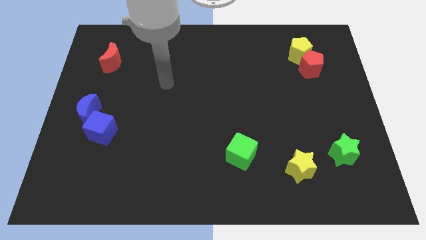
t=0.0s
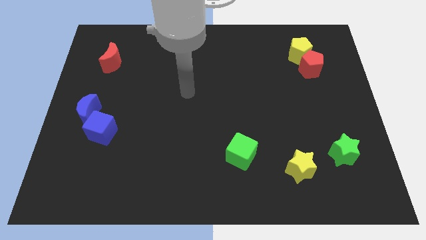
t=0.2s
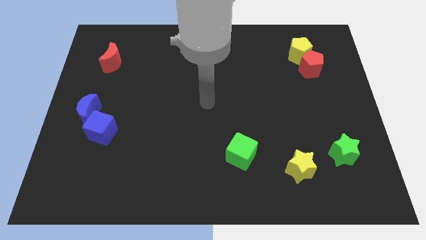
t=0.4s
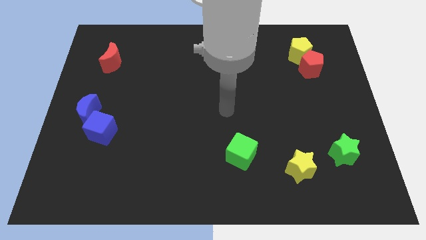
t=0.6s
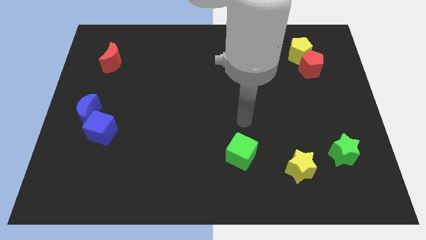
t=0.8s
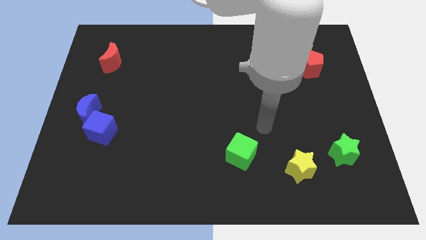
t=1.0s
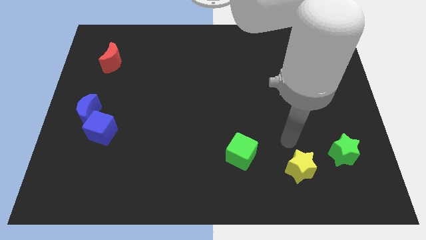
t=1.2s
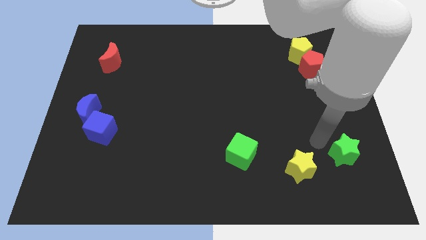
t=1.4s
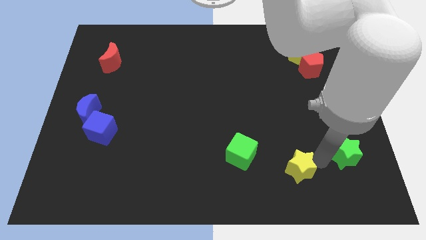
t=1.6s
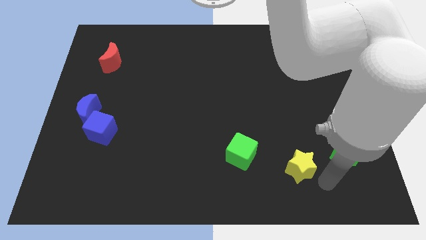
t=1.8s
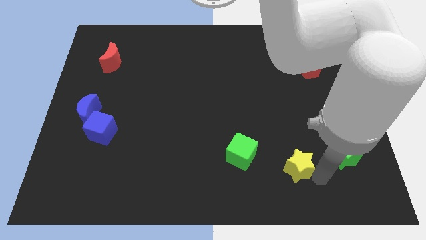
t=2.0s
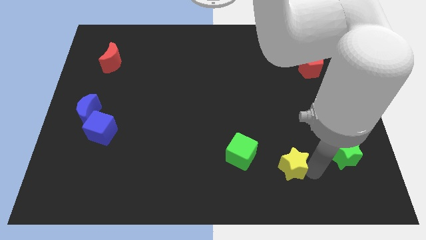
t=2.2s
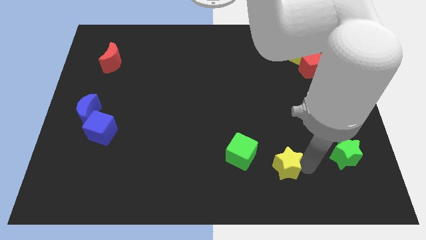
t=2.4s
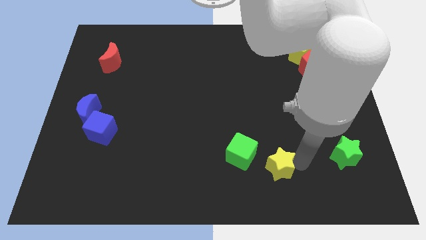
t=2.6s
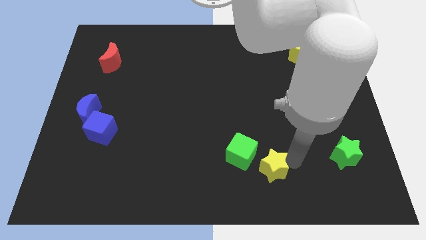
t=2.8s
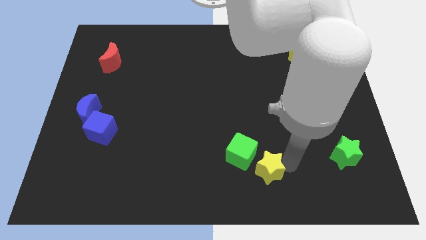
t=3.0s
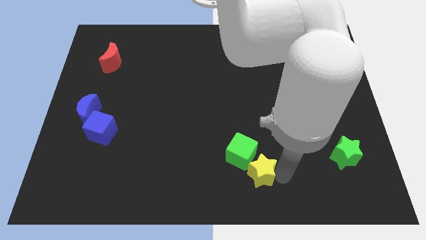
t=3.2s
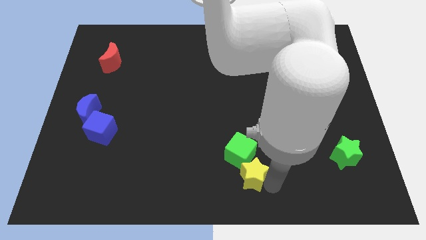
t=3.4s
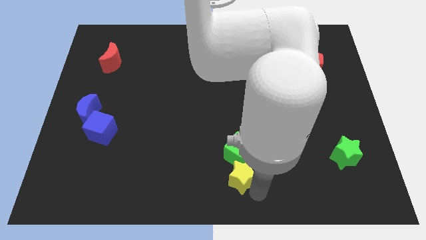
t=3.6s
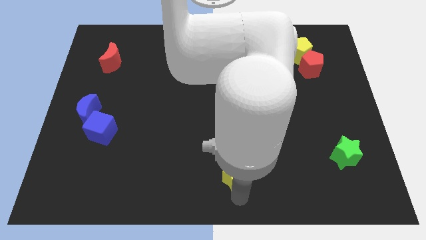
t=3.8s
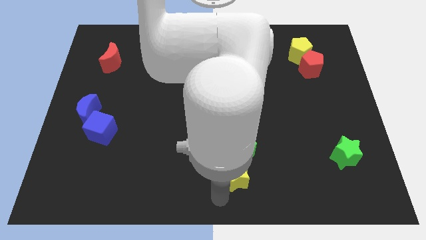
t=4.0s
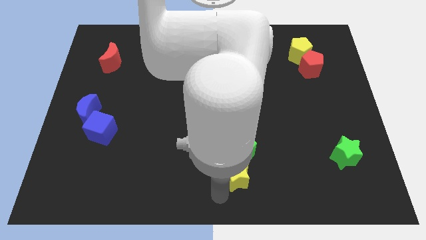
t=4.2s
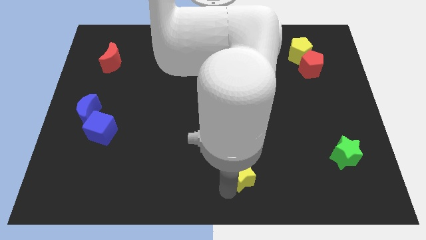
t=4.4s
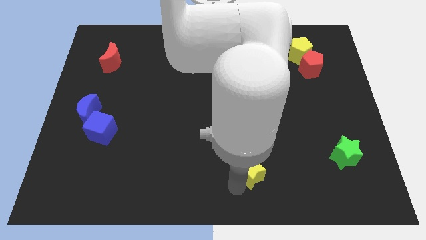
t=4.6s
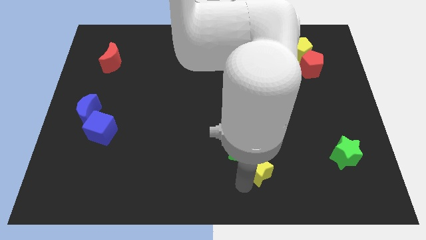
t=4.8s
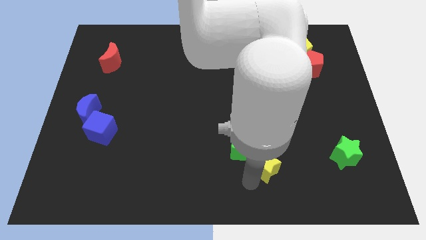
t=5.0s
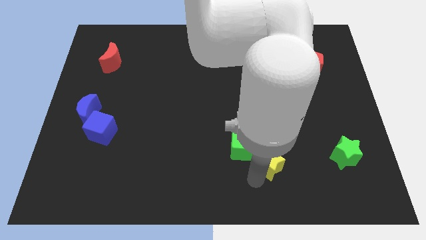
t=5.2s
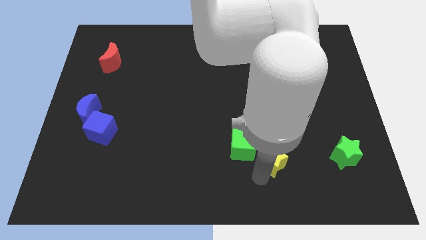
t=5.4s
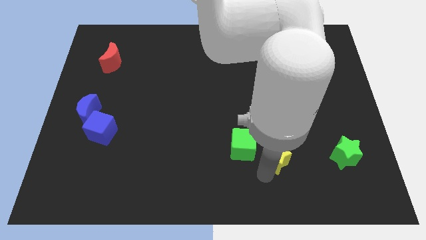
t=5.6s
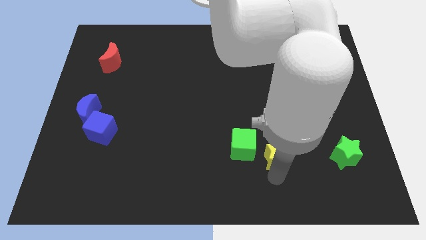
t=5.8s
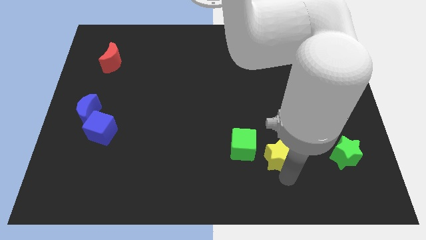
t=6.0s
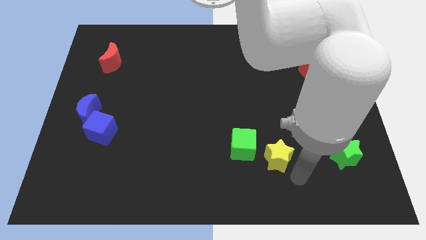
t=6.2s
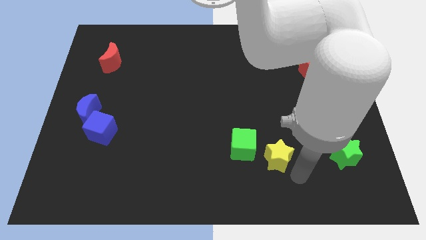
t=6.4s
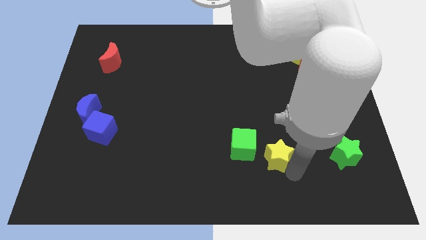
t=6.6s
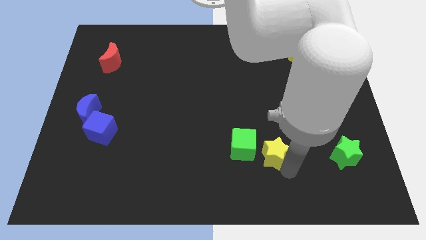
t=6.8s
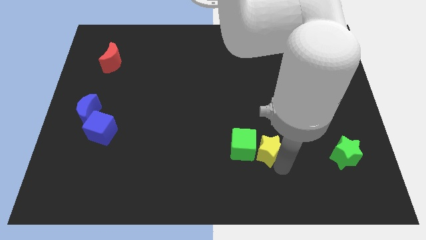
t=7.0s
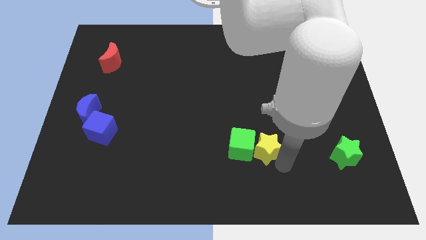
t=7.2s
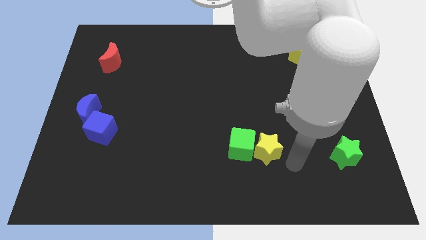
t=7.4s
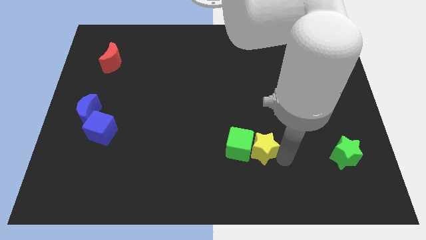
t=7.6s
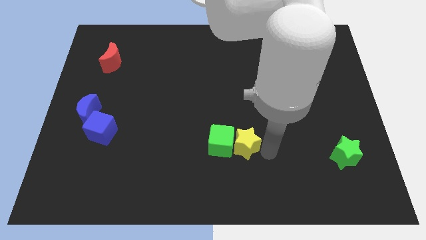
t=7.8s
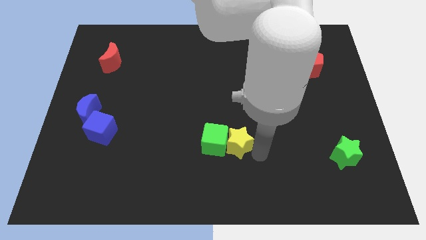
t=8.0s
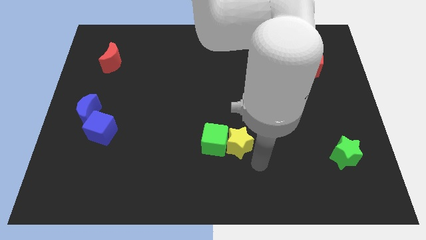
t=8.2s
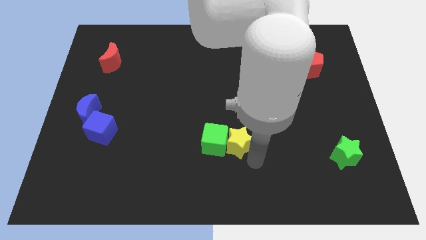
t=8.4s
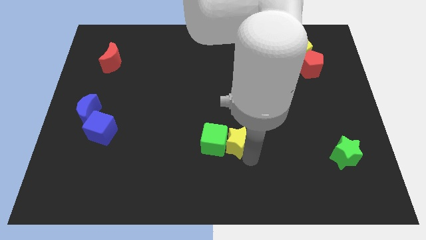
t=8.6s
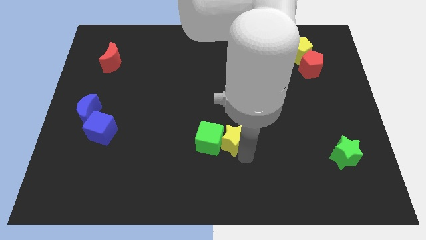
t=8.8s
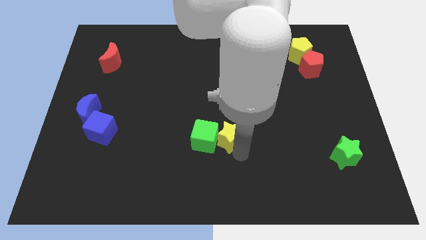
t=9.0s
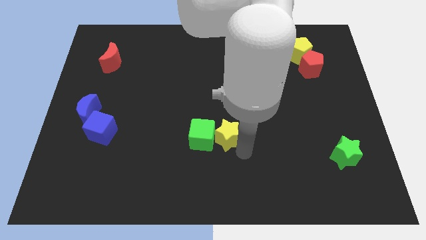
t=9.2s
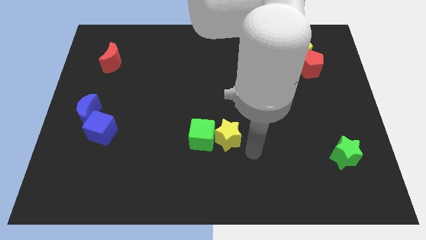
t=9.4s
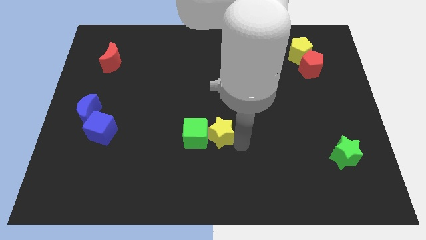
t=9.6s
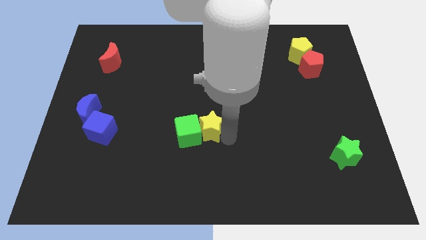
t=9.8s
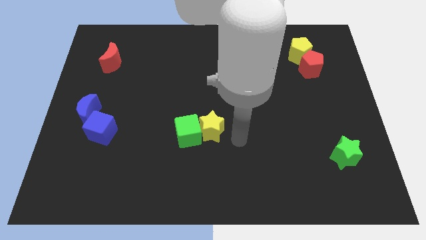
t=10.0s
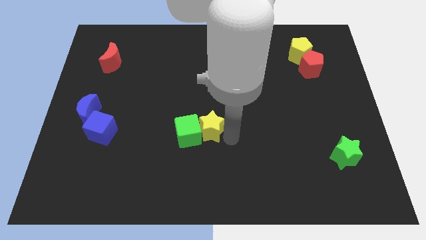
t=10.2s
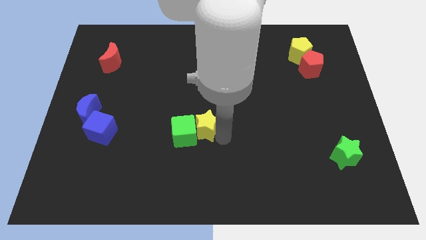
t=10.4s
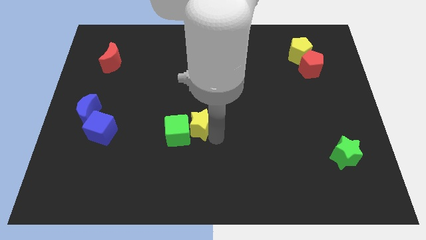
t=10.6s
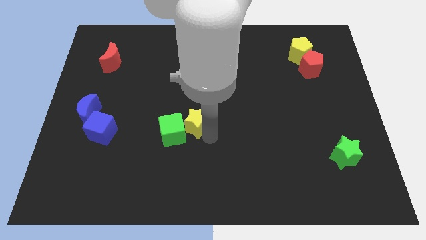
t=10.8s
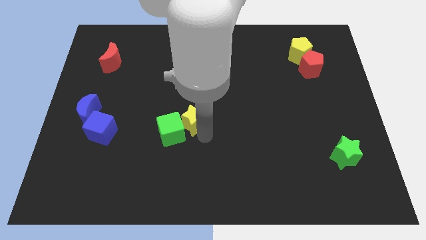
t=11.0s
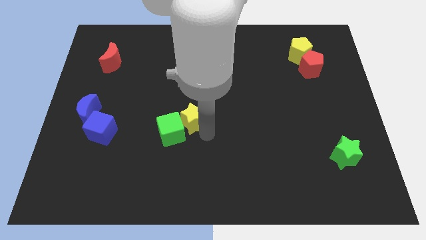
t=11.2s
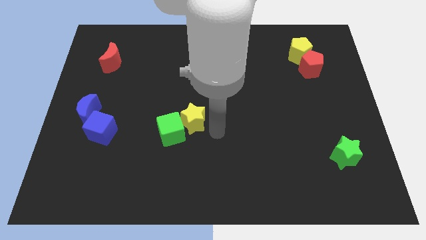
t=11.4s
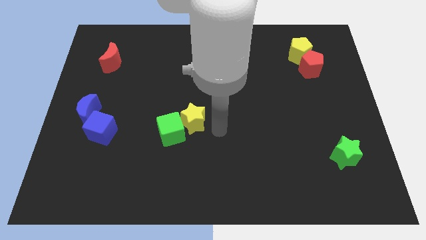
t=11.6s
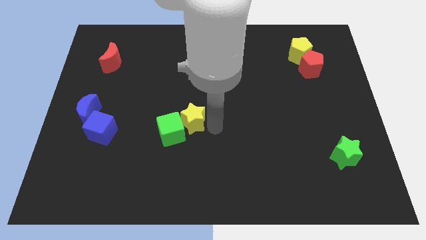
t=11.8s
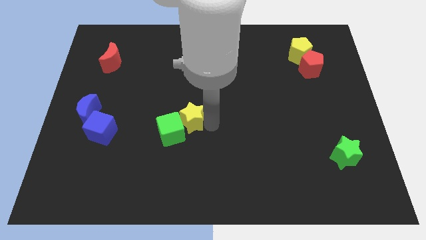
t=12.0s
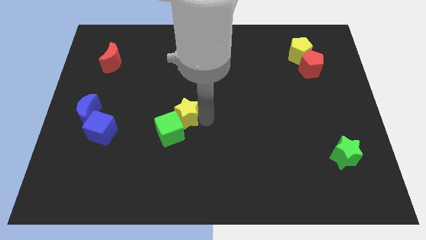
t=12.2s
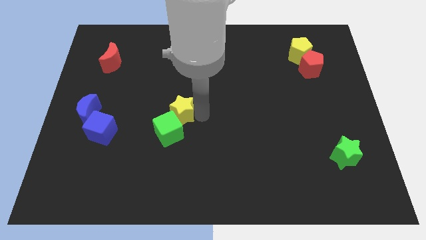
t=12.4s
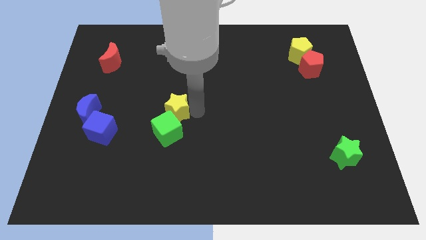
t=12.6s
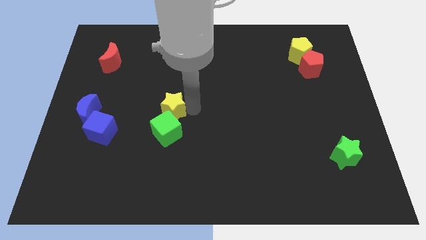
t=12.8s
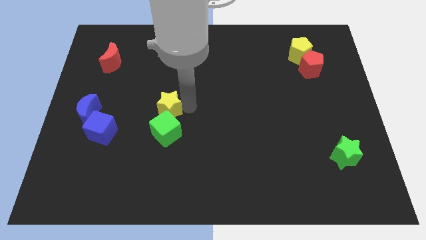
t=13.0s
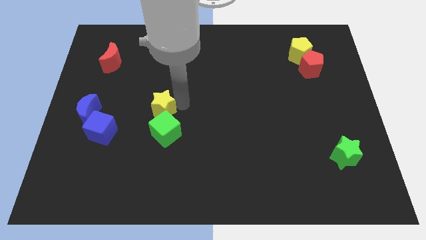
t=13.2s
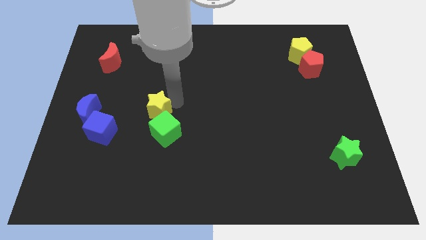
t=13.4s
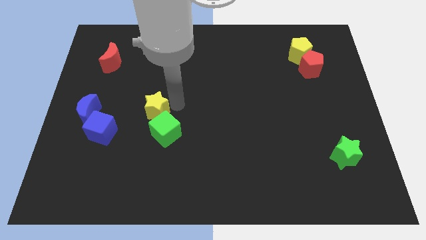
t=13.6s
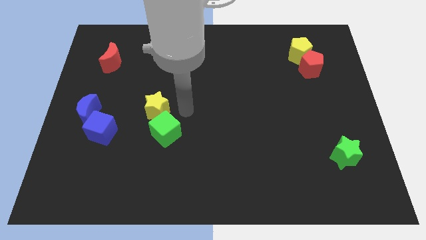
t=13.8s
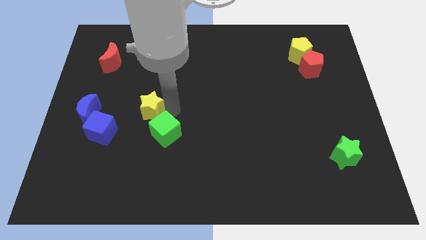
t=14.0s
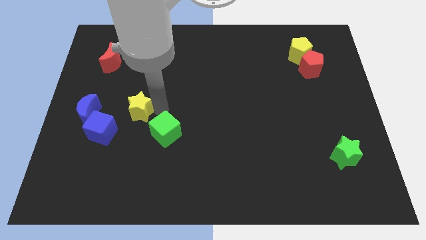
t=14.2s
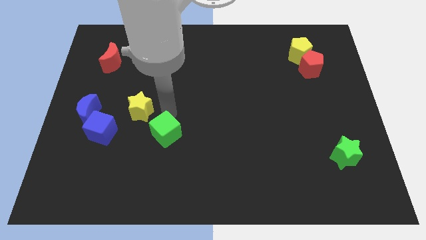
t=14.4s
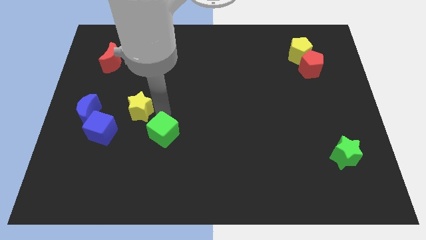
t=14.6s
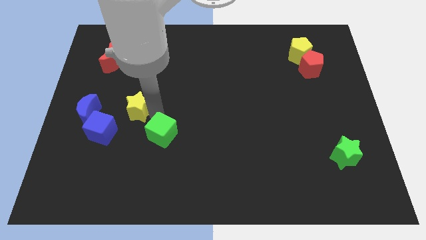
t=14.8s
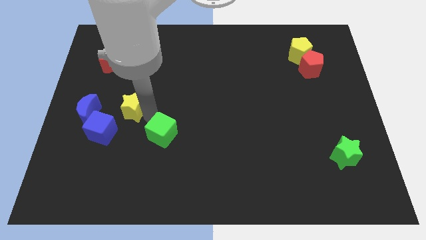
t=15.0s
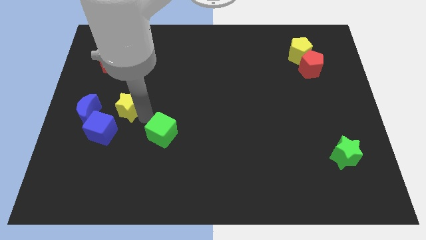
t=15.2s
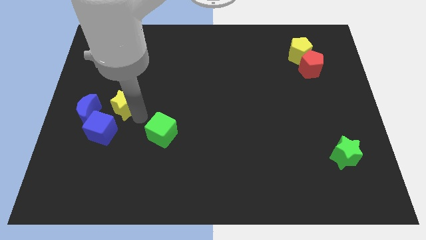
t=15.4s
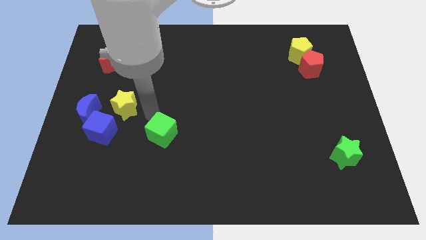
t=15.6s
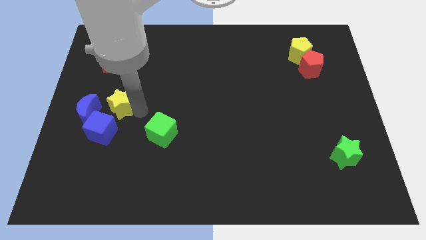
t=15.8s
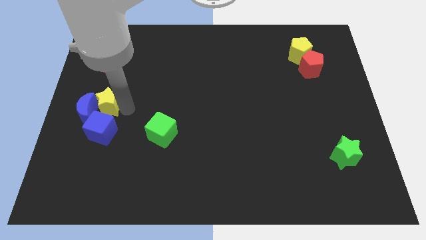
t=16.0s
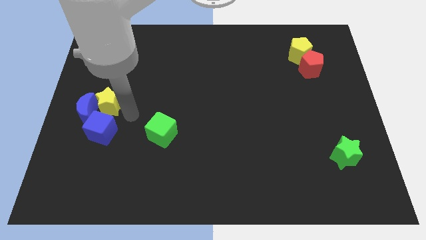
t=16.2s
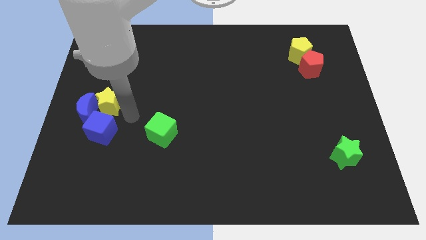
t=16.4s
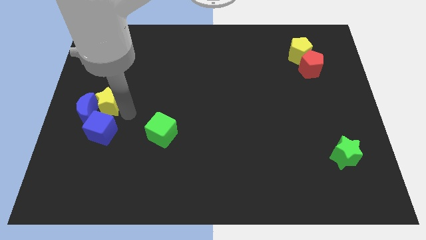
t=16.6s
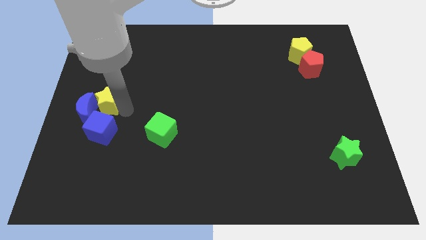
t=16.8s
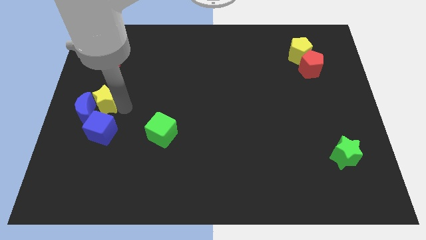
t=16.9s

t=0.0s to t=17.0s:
slide the yellow star to the center left
